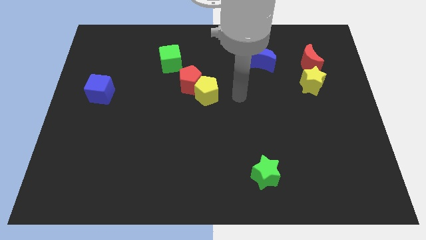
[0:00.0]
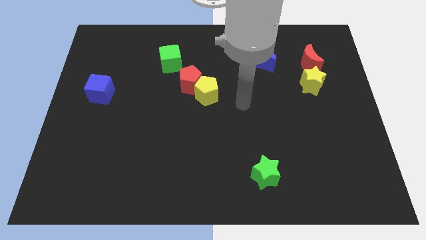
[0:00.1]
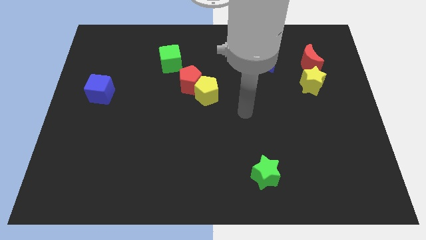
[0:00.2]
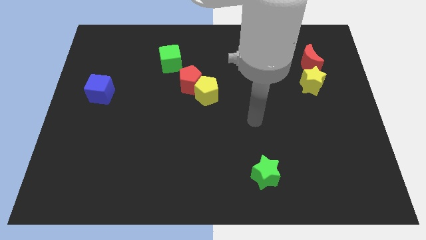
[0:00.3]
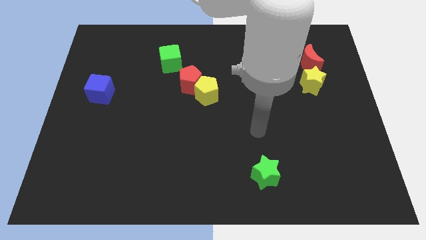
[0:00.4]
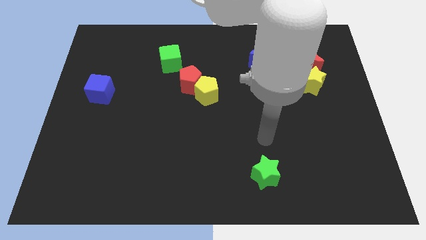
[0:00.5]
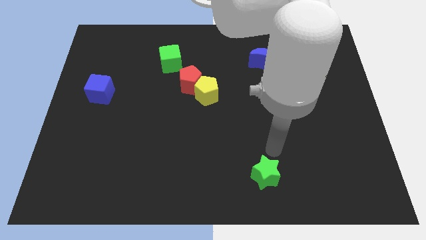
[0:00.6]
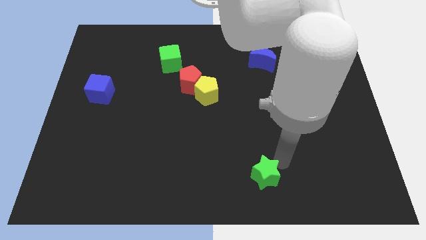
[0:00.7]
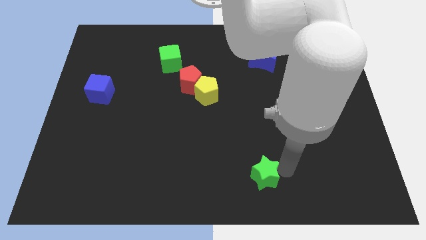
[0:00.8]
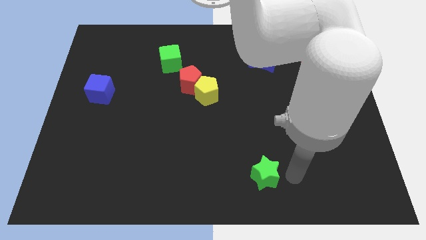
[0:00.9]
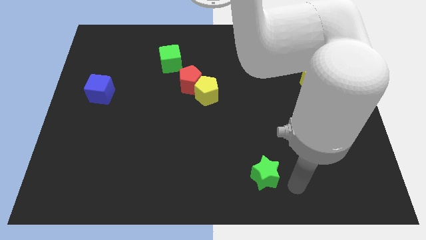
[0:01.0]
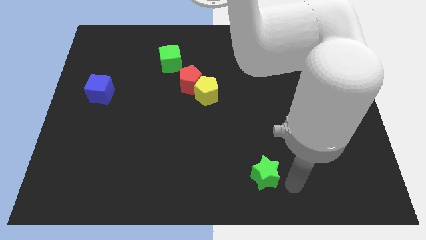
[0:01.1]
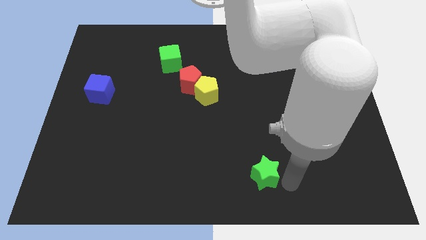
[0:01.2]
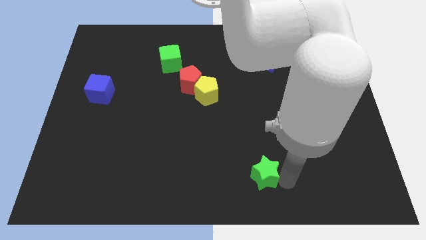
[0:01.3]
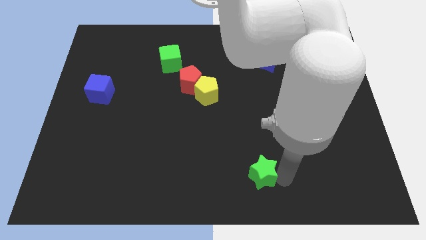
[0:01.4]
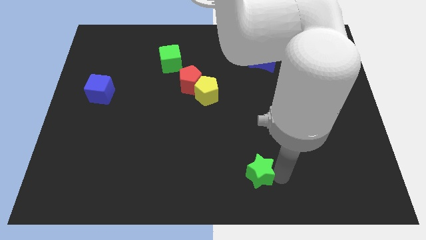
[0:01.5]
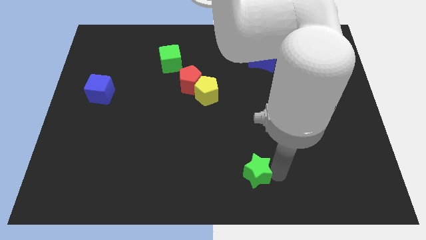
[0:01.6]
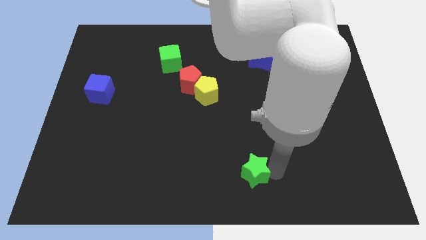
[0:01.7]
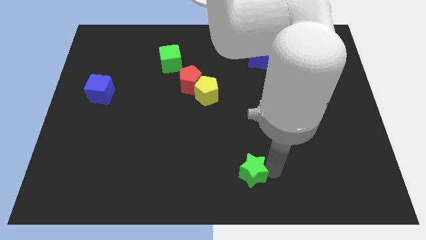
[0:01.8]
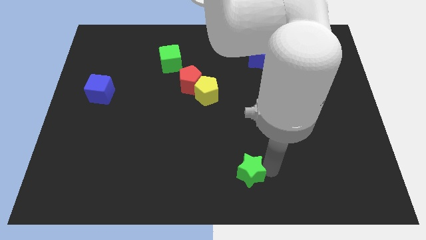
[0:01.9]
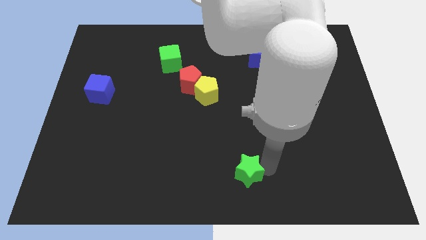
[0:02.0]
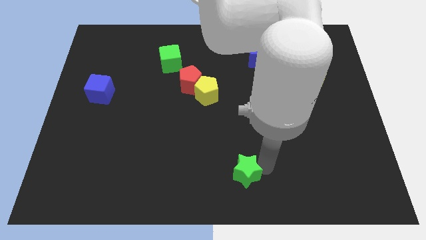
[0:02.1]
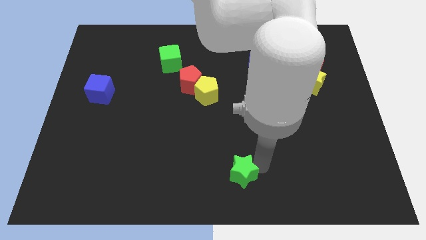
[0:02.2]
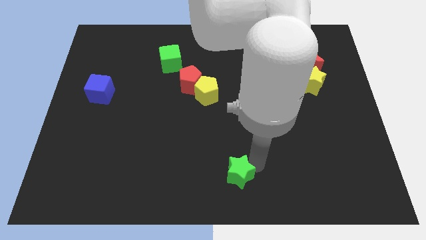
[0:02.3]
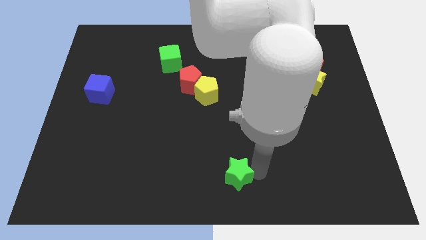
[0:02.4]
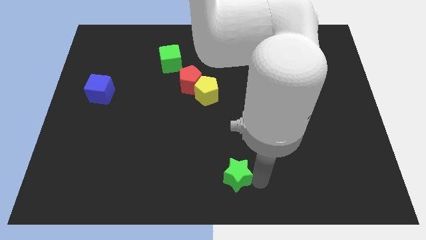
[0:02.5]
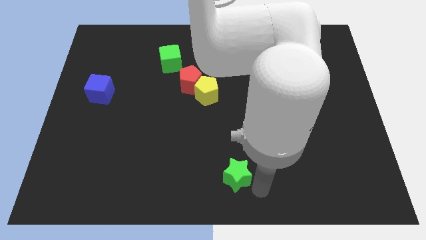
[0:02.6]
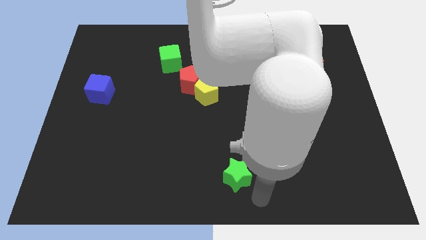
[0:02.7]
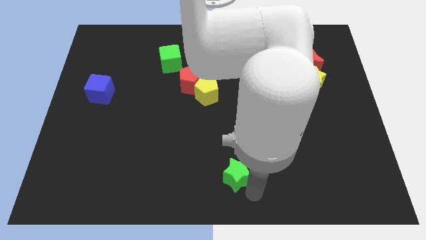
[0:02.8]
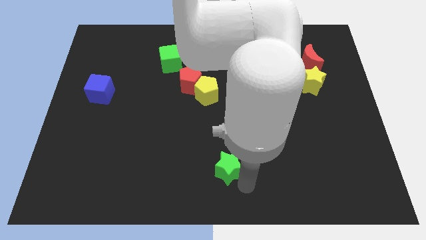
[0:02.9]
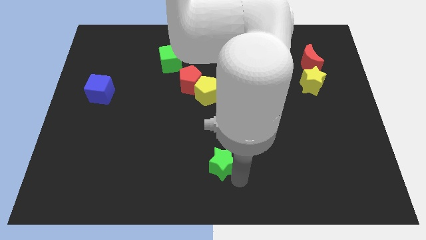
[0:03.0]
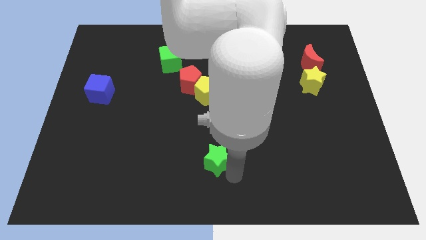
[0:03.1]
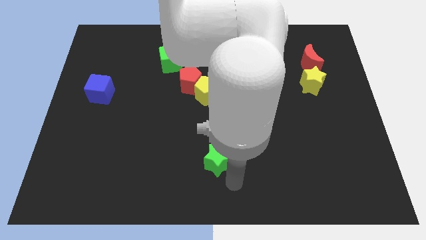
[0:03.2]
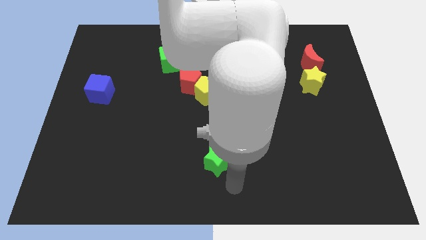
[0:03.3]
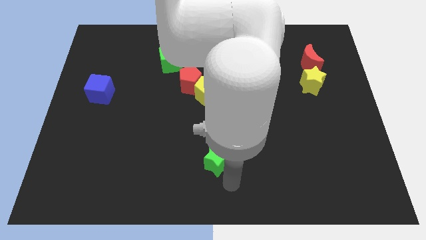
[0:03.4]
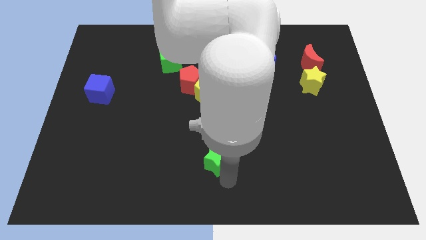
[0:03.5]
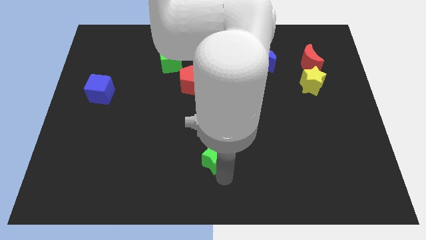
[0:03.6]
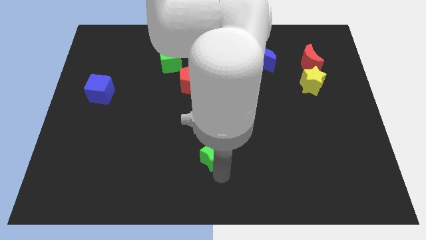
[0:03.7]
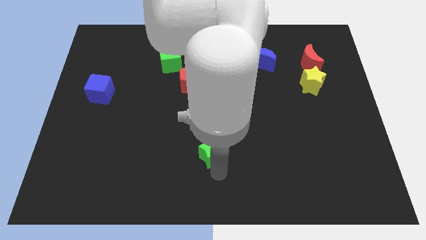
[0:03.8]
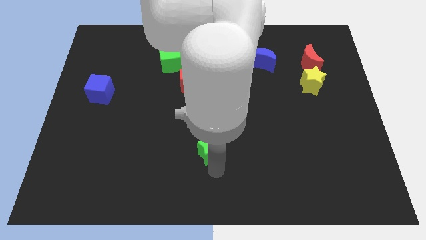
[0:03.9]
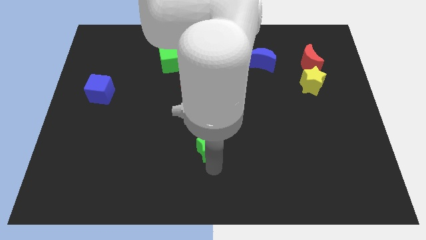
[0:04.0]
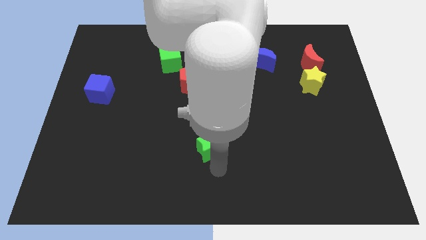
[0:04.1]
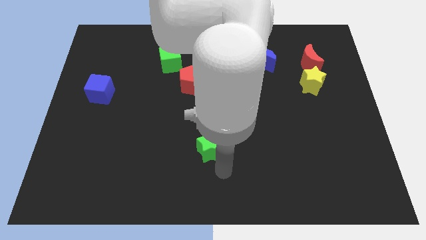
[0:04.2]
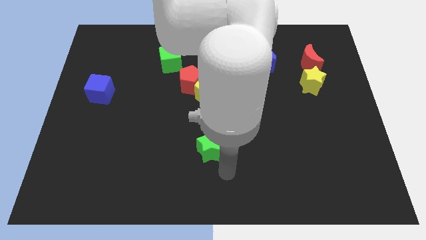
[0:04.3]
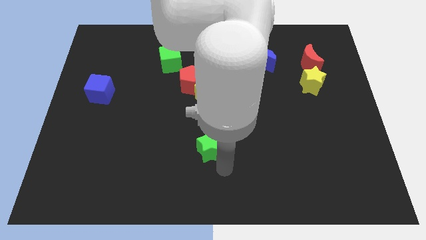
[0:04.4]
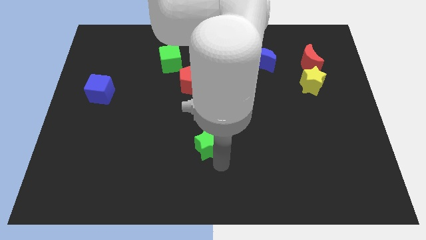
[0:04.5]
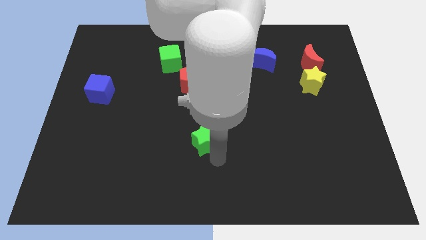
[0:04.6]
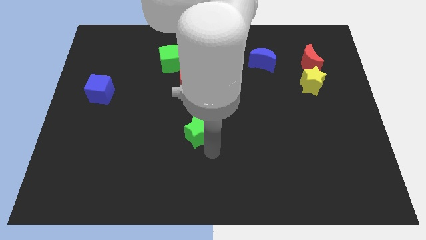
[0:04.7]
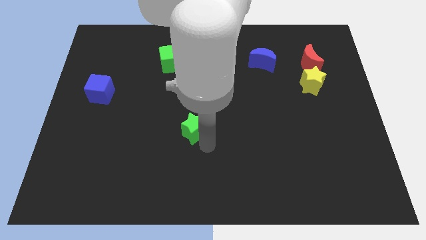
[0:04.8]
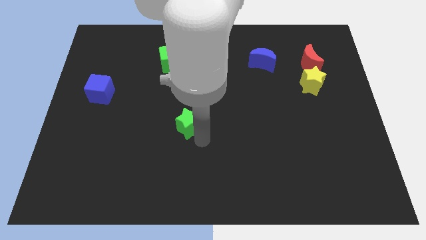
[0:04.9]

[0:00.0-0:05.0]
push the green star upwards and left

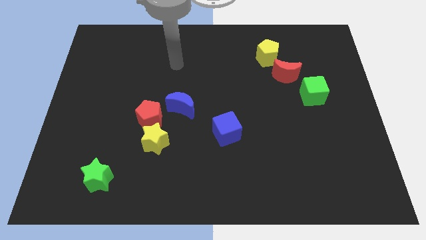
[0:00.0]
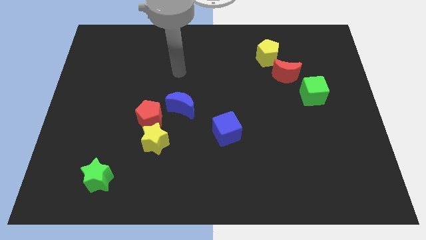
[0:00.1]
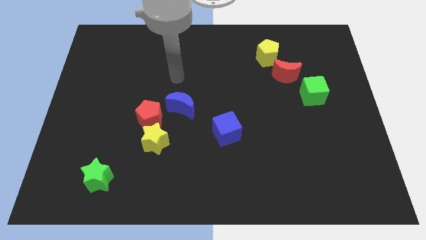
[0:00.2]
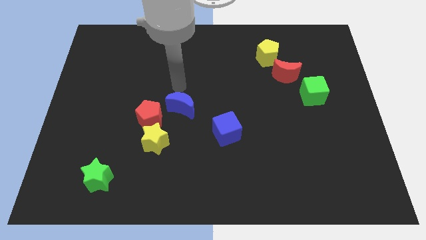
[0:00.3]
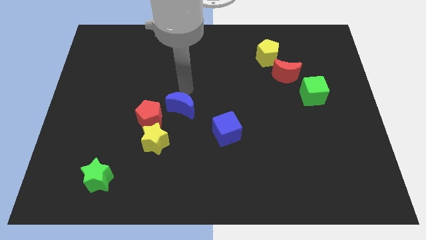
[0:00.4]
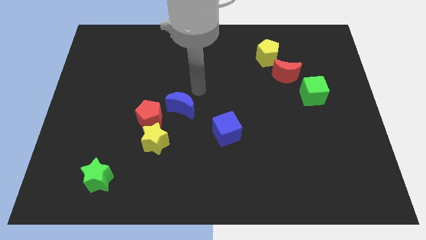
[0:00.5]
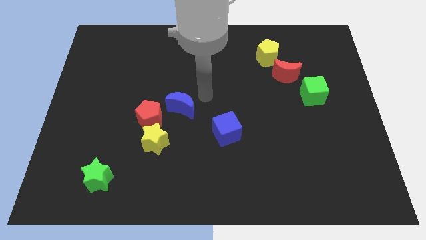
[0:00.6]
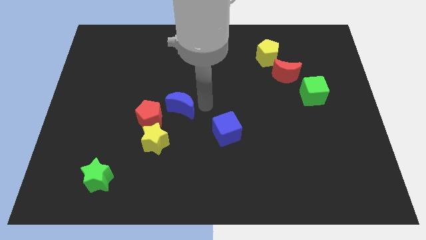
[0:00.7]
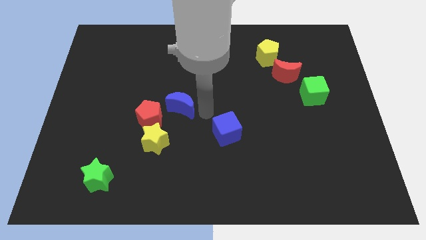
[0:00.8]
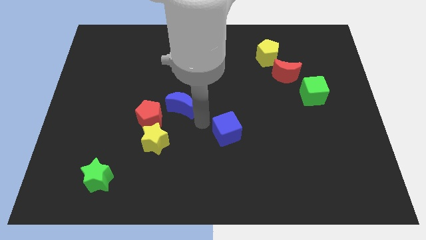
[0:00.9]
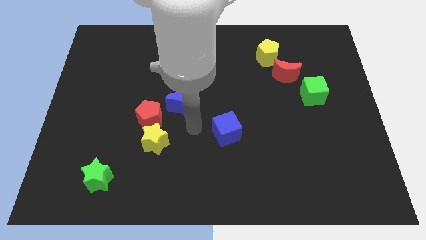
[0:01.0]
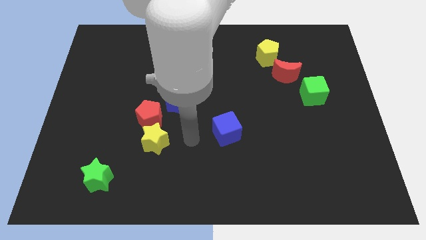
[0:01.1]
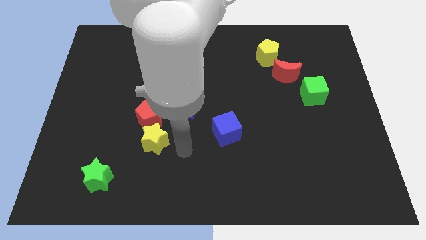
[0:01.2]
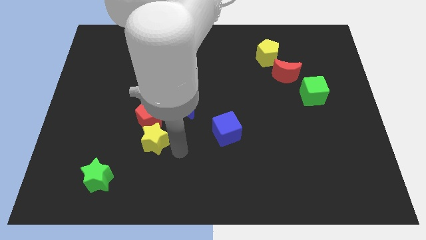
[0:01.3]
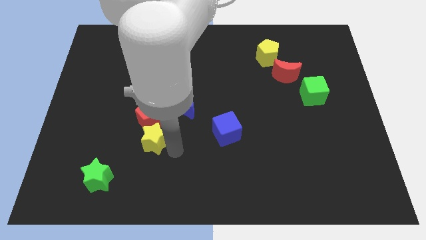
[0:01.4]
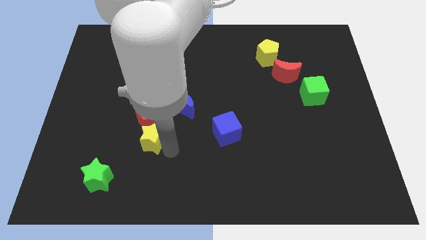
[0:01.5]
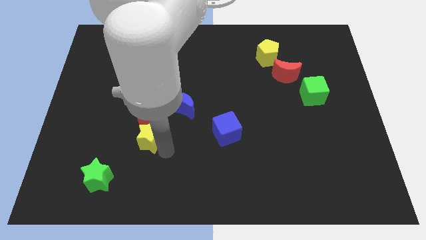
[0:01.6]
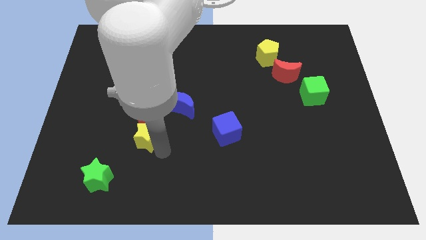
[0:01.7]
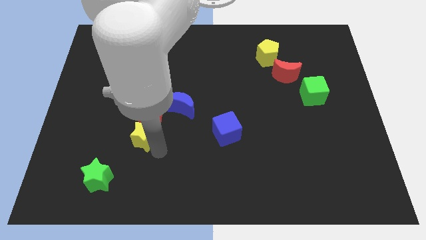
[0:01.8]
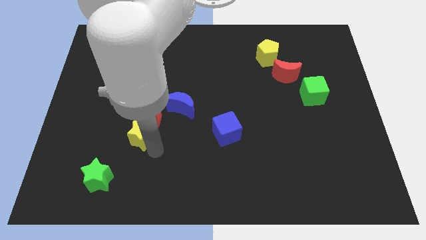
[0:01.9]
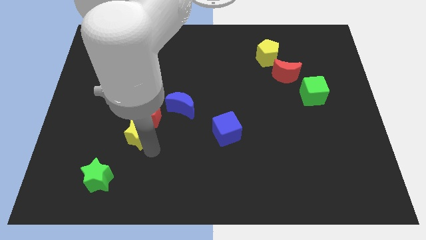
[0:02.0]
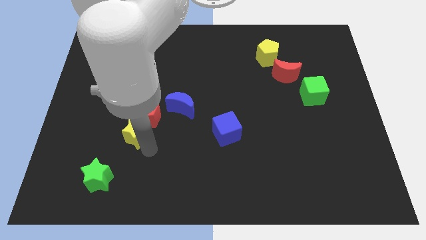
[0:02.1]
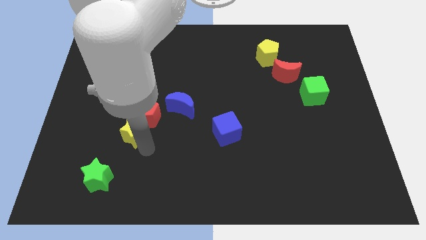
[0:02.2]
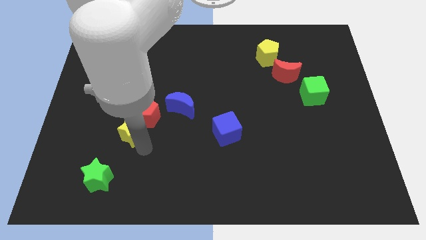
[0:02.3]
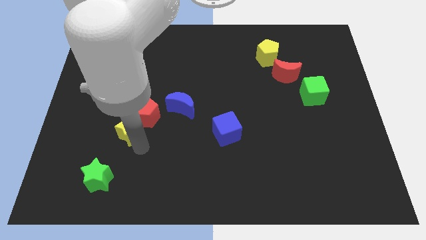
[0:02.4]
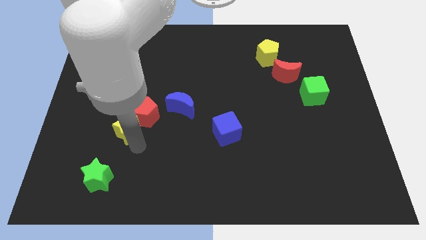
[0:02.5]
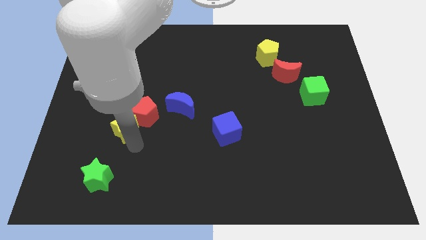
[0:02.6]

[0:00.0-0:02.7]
slide the yellow star diagonally upwards and to the left a bit
